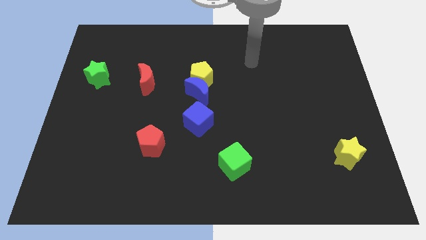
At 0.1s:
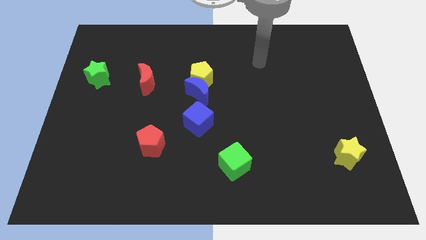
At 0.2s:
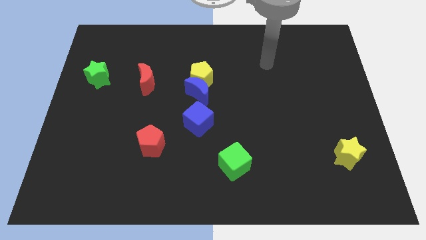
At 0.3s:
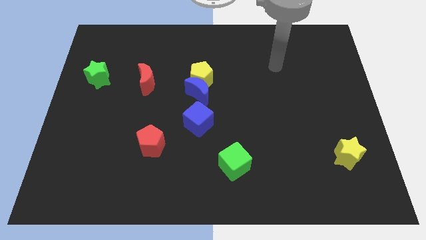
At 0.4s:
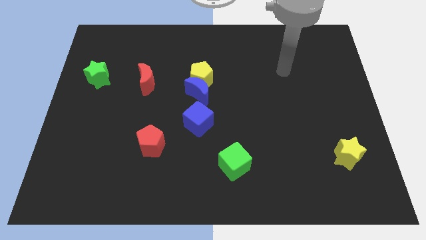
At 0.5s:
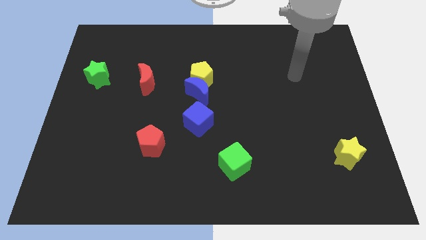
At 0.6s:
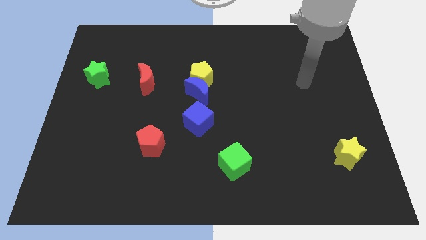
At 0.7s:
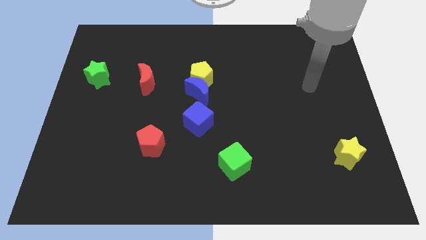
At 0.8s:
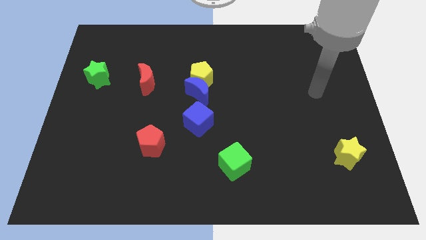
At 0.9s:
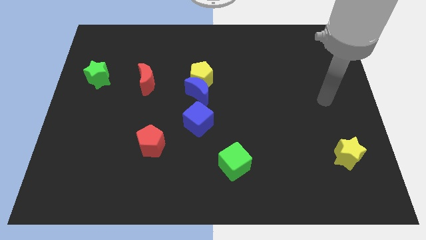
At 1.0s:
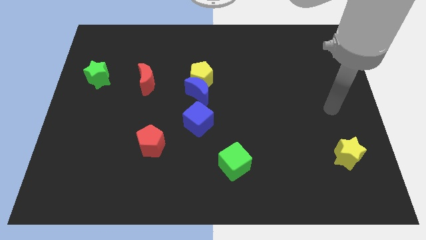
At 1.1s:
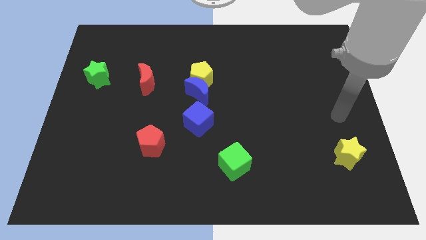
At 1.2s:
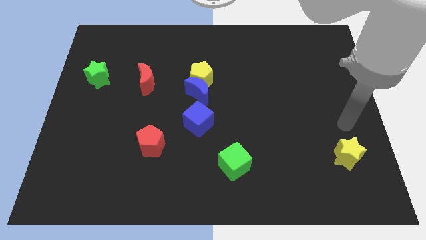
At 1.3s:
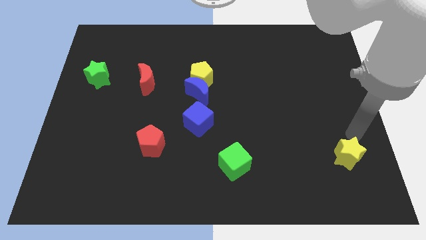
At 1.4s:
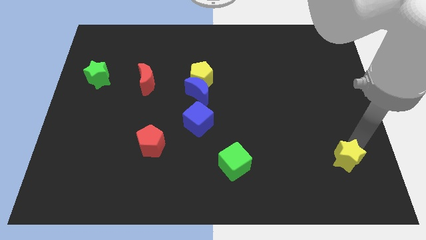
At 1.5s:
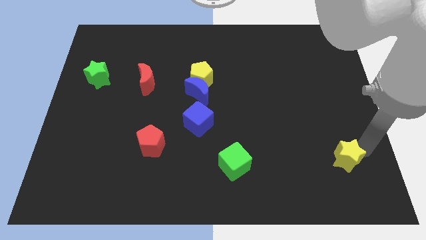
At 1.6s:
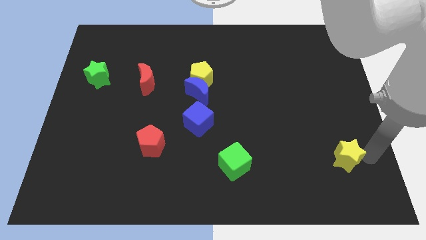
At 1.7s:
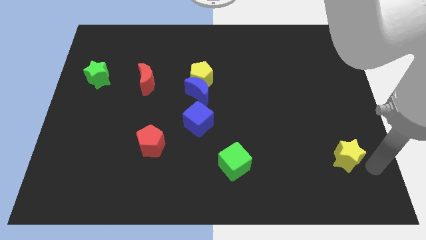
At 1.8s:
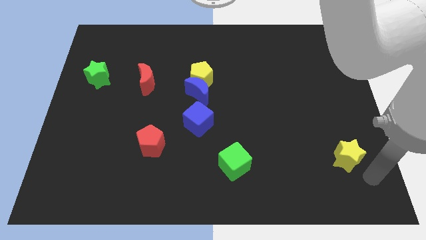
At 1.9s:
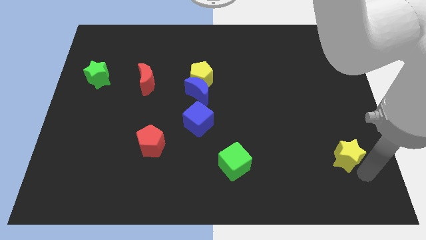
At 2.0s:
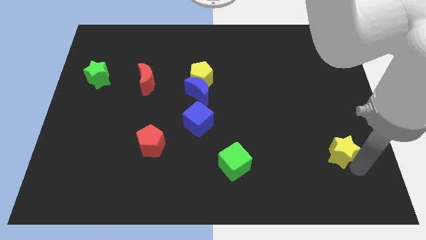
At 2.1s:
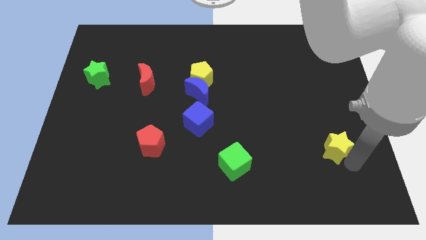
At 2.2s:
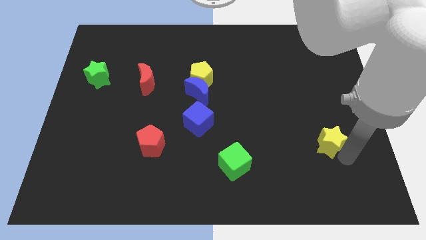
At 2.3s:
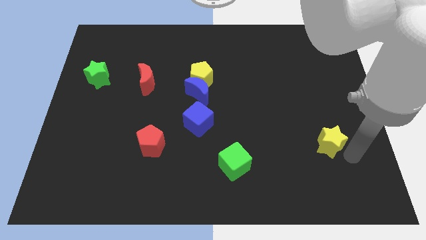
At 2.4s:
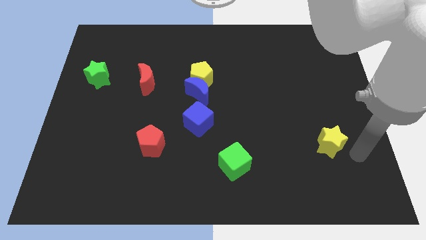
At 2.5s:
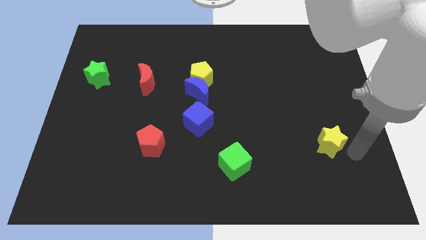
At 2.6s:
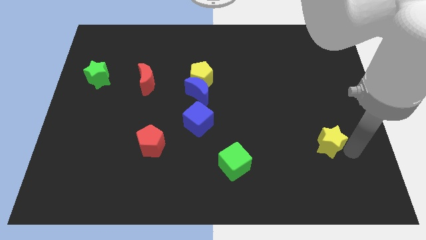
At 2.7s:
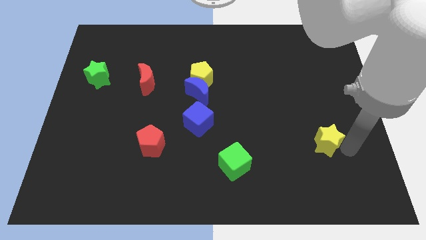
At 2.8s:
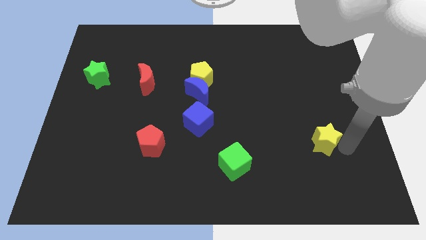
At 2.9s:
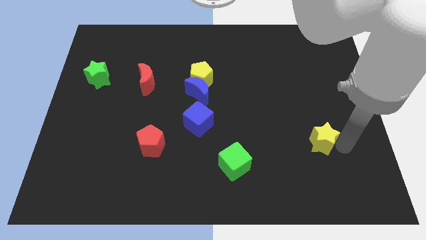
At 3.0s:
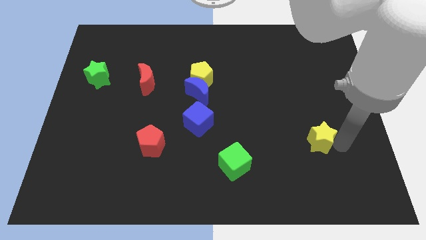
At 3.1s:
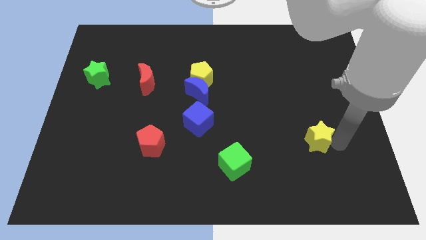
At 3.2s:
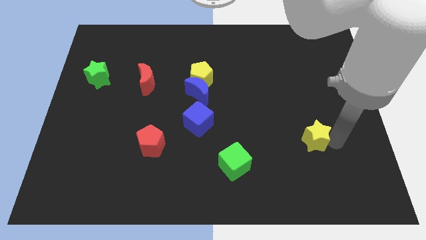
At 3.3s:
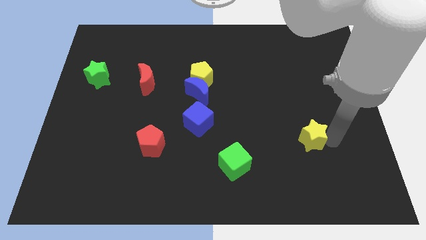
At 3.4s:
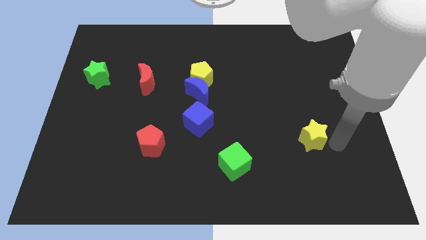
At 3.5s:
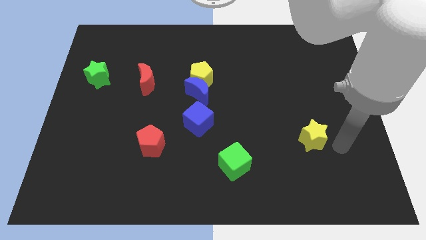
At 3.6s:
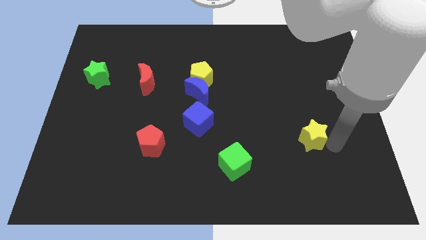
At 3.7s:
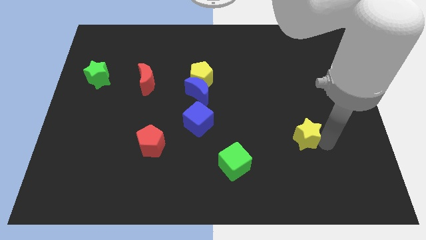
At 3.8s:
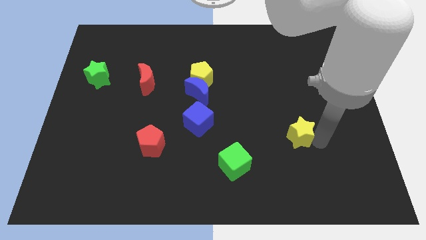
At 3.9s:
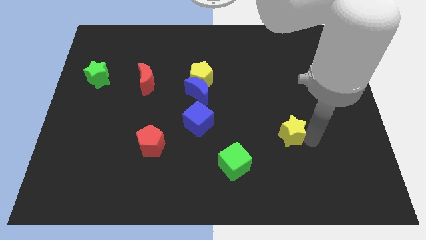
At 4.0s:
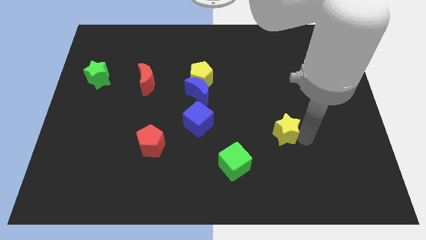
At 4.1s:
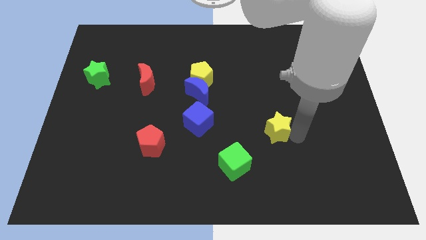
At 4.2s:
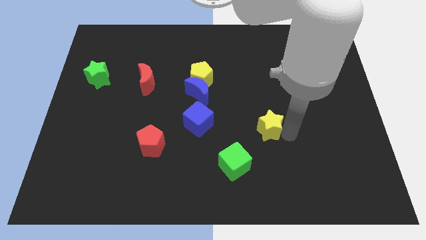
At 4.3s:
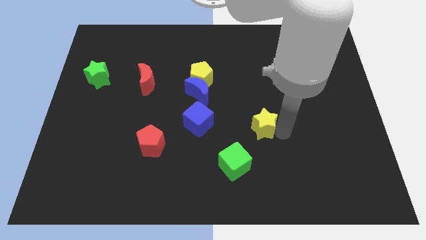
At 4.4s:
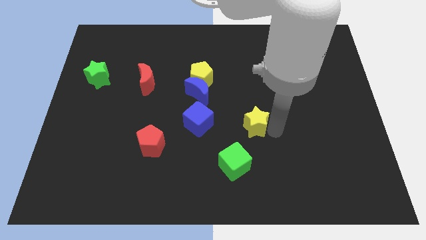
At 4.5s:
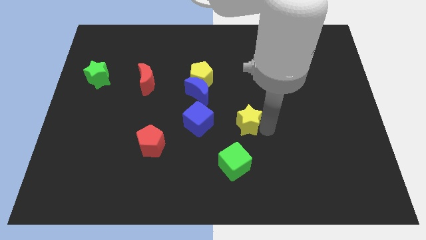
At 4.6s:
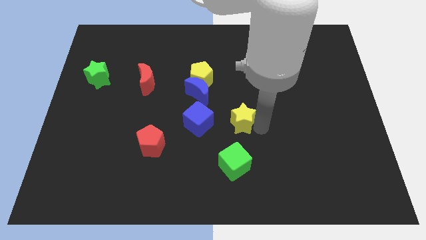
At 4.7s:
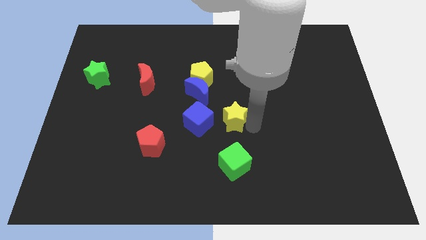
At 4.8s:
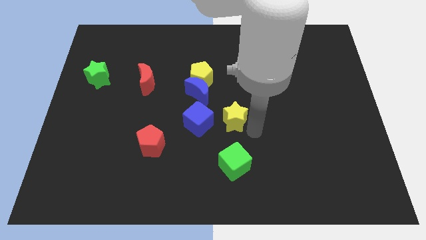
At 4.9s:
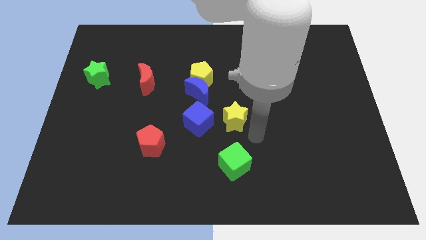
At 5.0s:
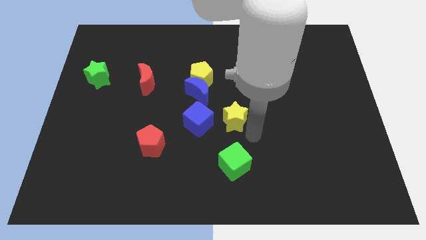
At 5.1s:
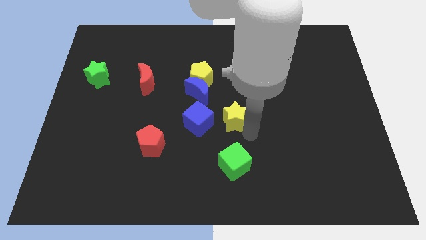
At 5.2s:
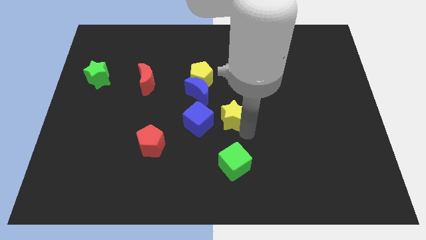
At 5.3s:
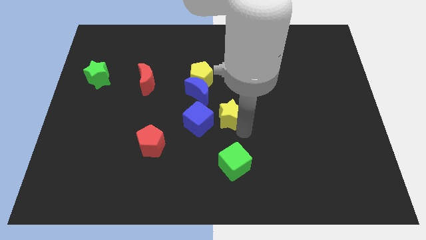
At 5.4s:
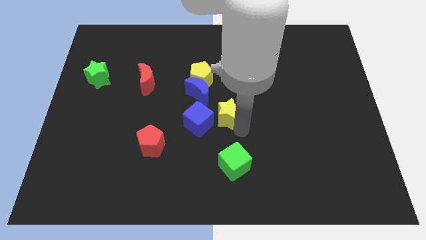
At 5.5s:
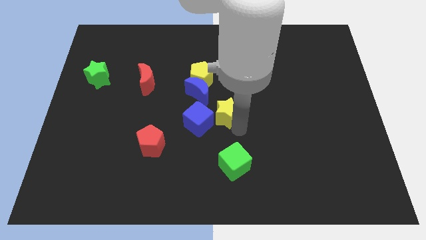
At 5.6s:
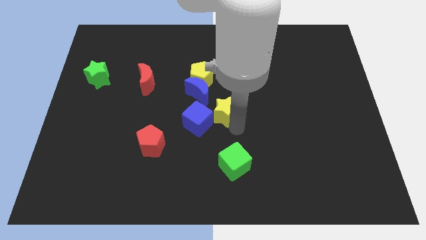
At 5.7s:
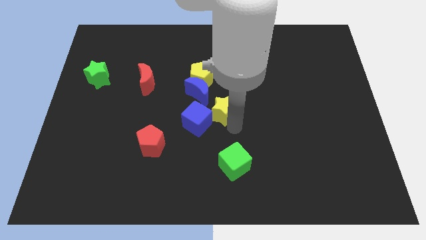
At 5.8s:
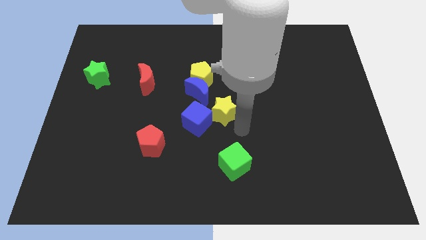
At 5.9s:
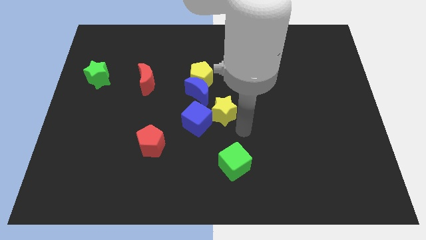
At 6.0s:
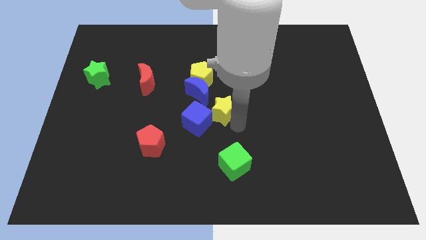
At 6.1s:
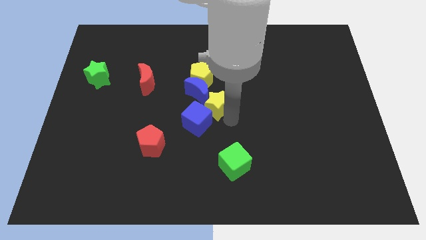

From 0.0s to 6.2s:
slide the yellow star next to the blue moon

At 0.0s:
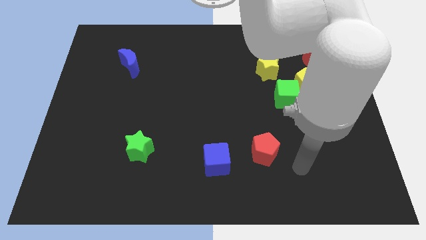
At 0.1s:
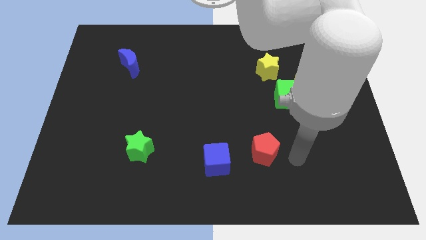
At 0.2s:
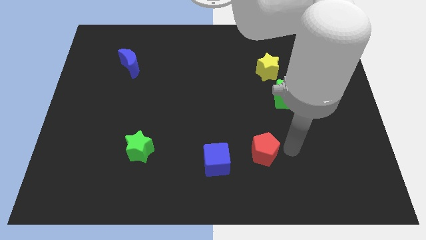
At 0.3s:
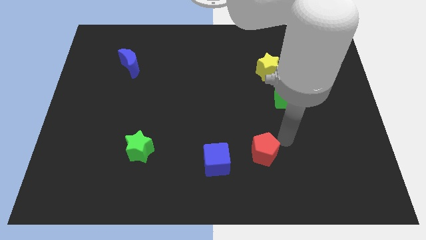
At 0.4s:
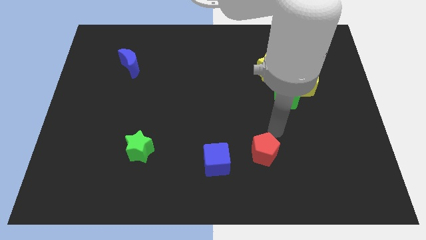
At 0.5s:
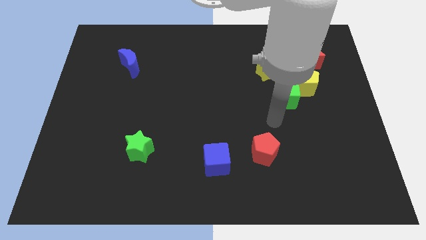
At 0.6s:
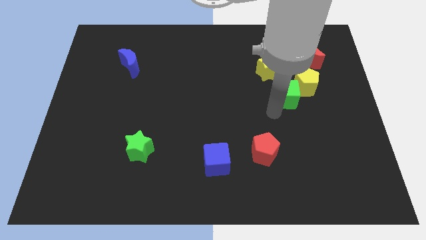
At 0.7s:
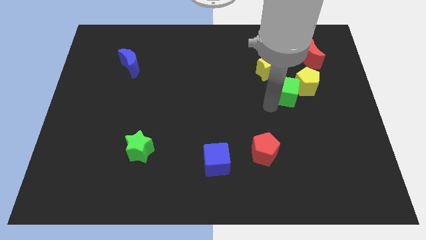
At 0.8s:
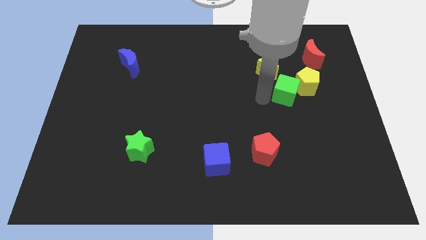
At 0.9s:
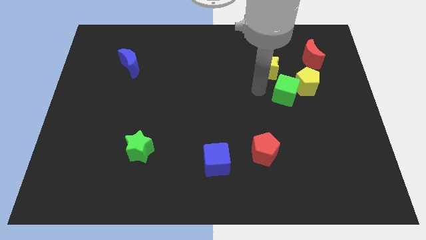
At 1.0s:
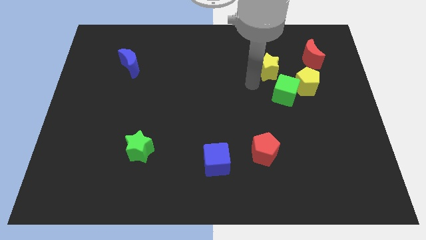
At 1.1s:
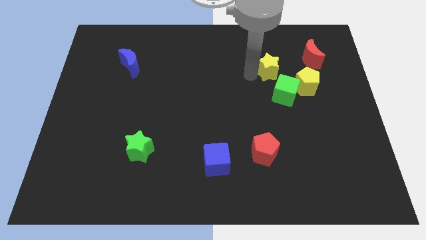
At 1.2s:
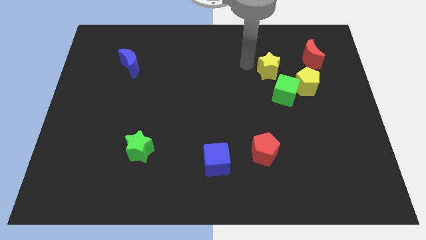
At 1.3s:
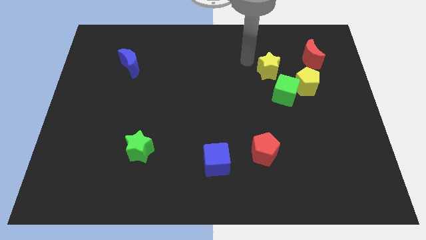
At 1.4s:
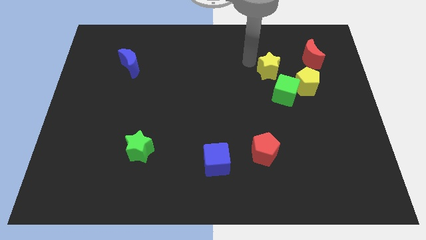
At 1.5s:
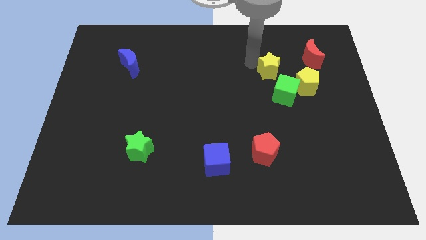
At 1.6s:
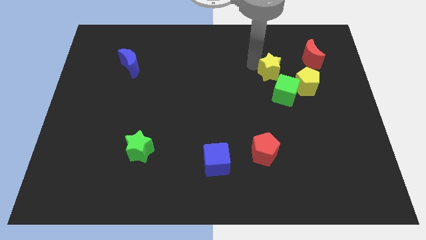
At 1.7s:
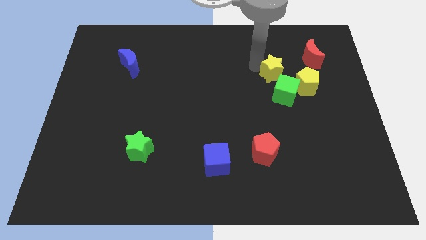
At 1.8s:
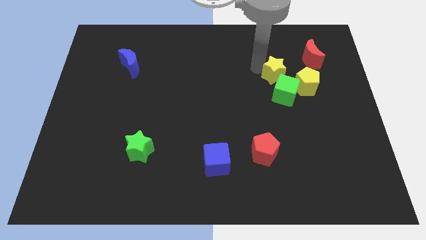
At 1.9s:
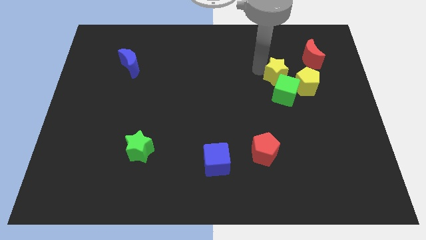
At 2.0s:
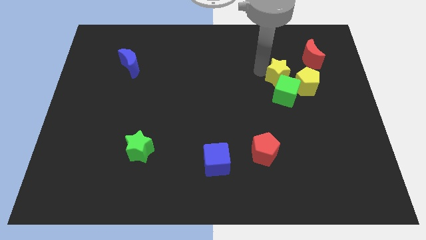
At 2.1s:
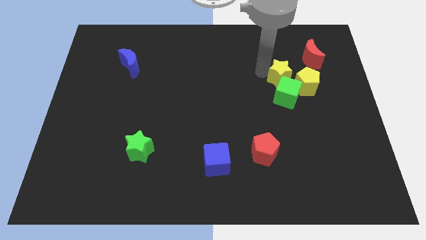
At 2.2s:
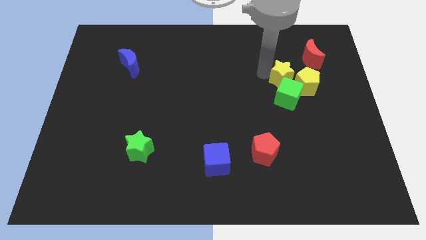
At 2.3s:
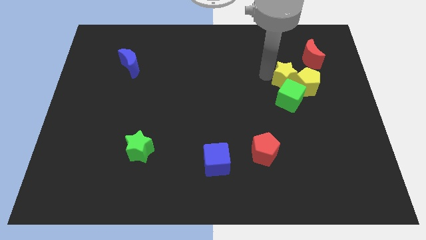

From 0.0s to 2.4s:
slide the yellow star towards the yellow pentagon
